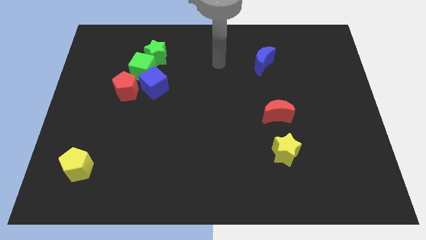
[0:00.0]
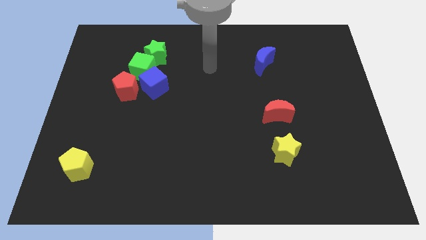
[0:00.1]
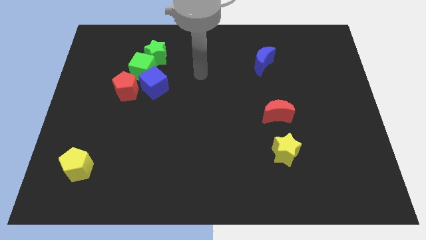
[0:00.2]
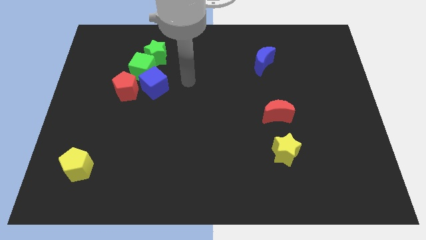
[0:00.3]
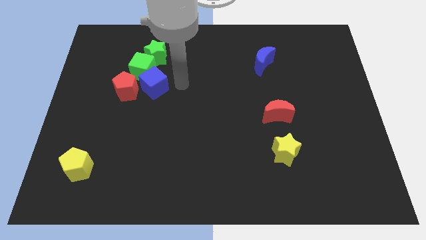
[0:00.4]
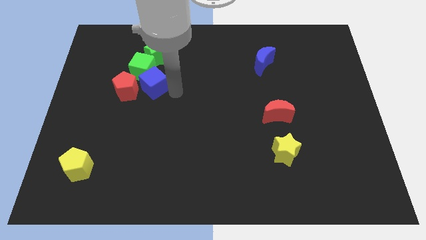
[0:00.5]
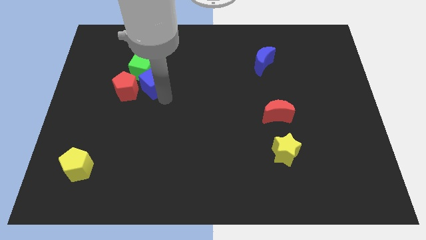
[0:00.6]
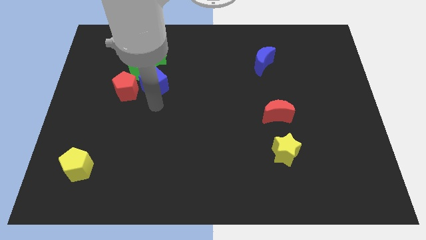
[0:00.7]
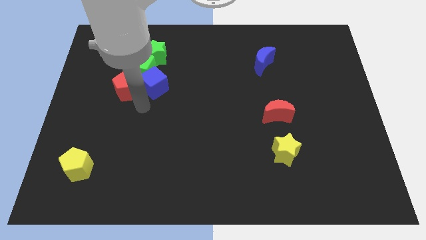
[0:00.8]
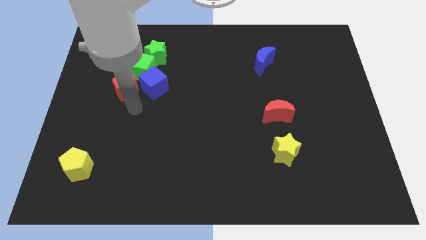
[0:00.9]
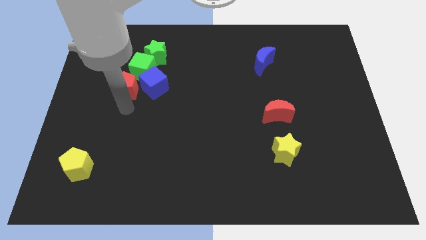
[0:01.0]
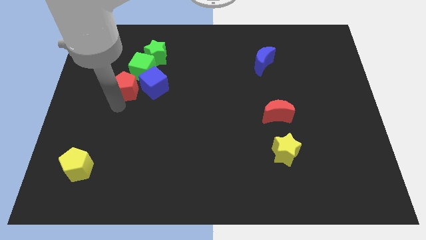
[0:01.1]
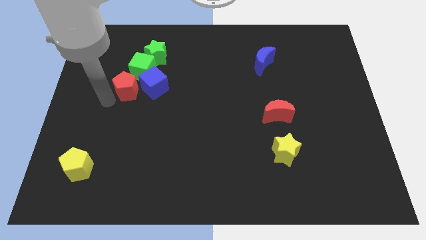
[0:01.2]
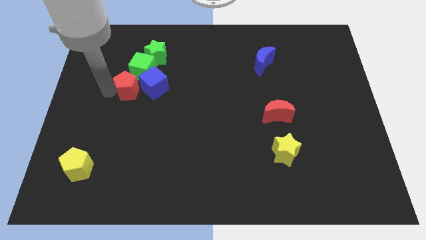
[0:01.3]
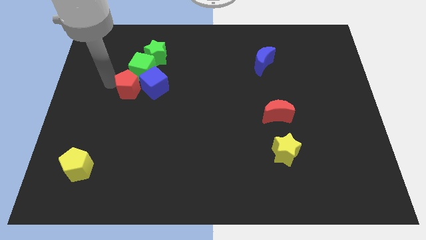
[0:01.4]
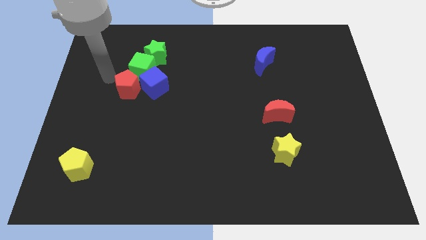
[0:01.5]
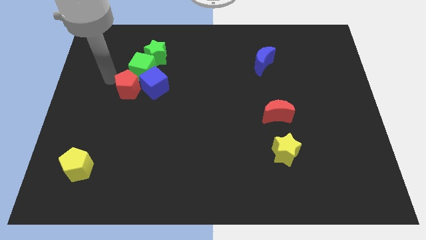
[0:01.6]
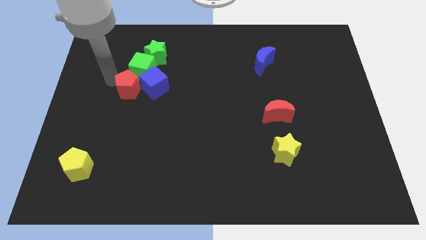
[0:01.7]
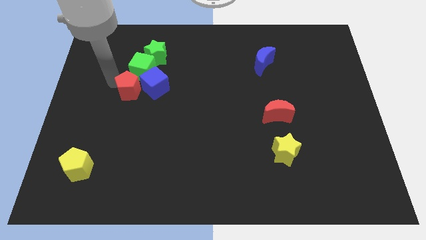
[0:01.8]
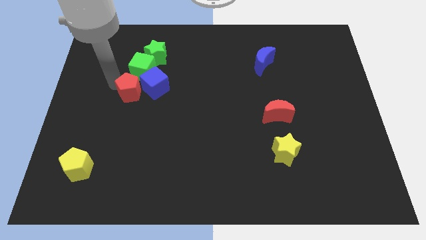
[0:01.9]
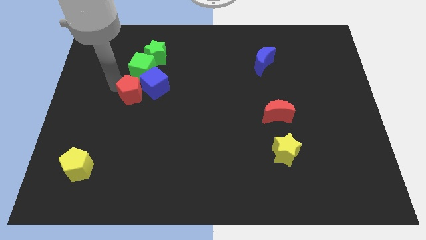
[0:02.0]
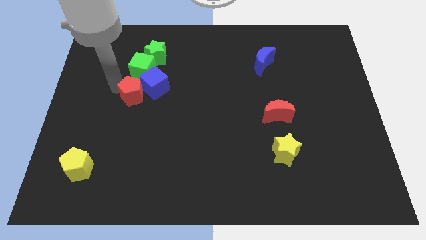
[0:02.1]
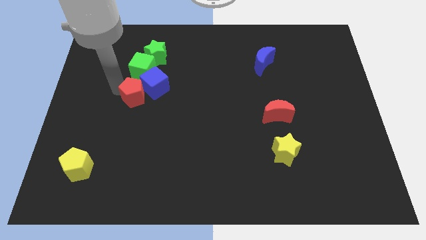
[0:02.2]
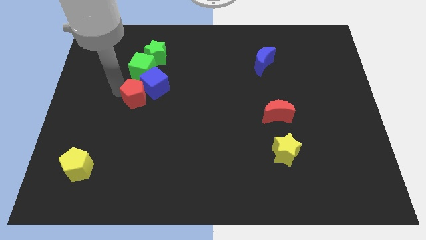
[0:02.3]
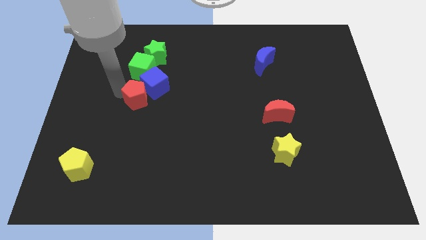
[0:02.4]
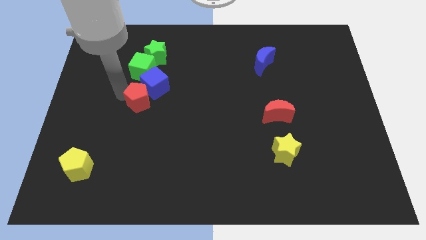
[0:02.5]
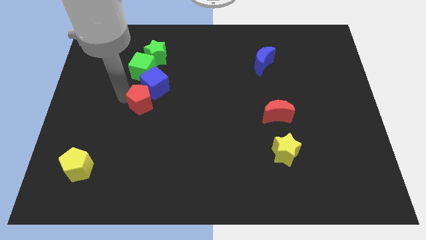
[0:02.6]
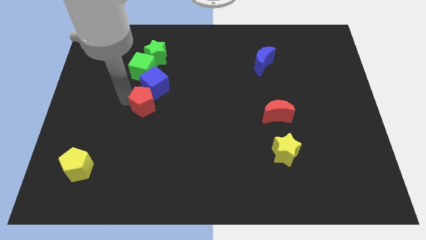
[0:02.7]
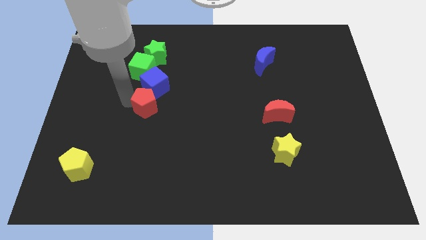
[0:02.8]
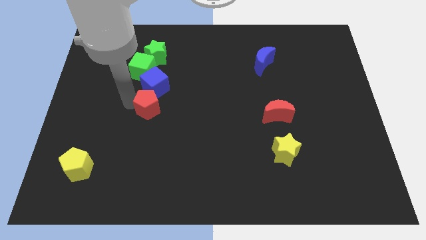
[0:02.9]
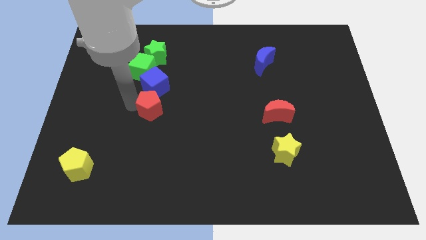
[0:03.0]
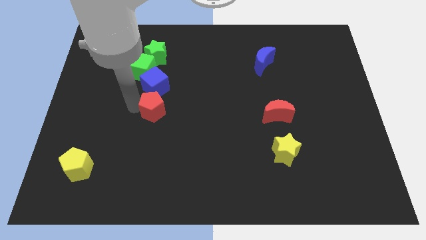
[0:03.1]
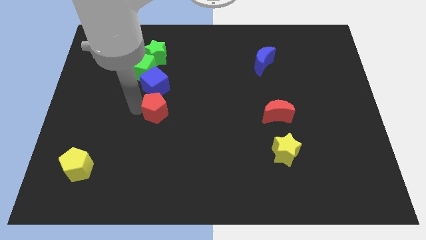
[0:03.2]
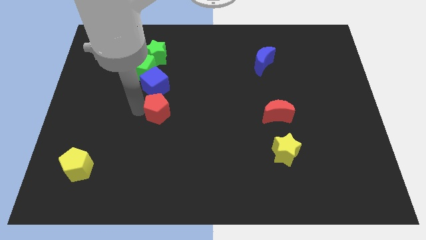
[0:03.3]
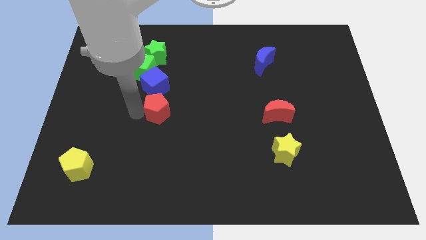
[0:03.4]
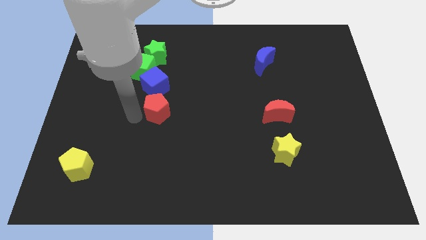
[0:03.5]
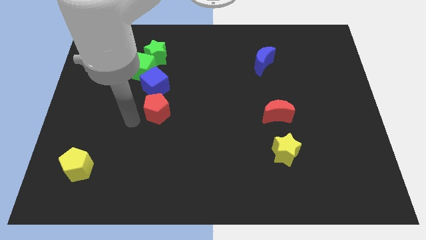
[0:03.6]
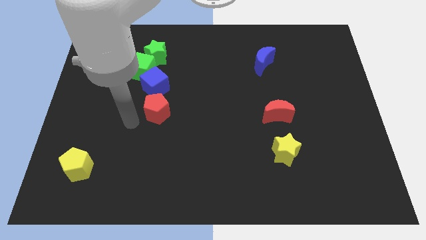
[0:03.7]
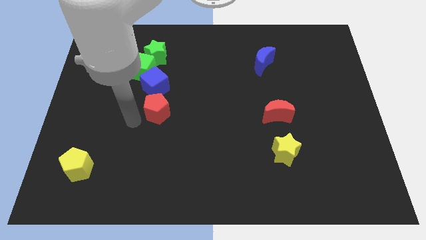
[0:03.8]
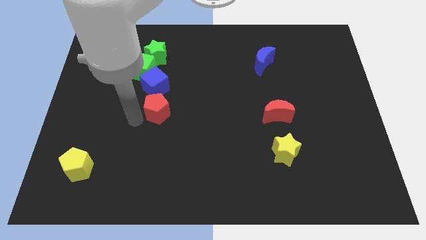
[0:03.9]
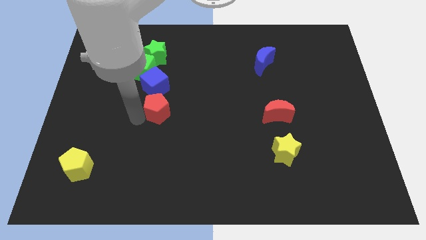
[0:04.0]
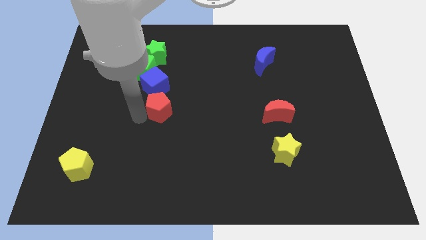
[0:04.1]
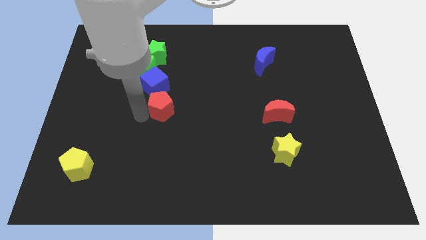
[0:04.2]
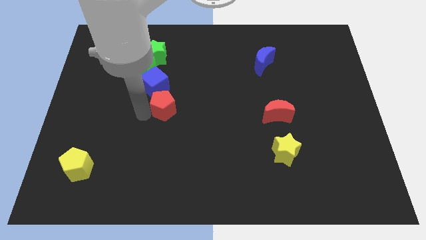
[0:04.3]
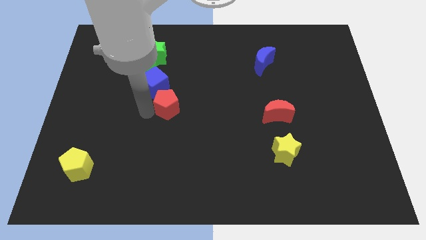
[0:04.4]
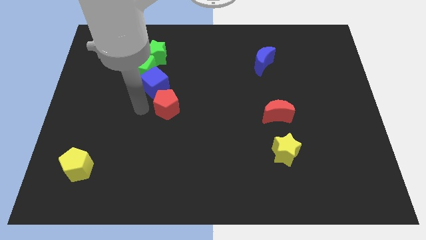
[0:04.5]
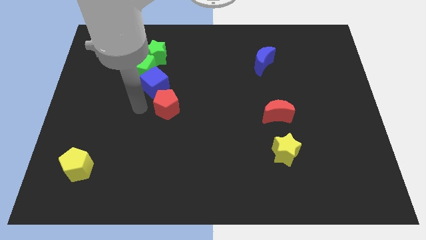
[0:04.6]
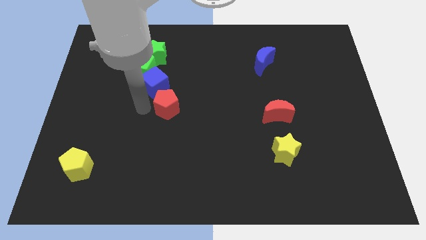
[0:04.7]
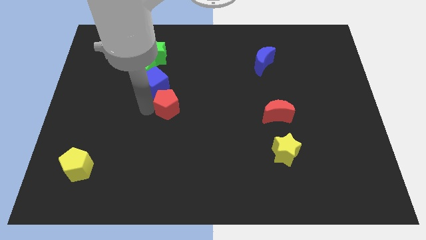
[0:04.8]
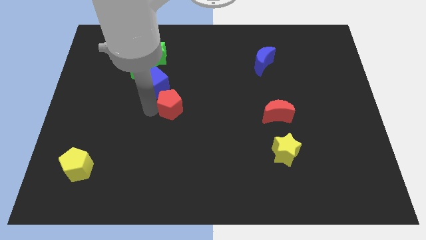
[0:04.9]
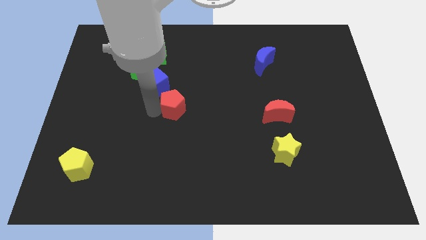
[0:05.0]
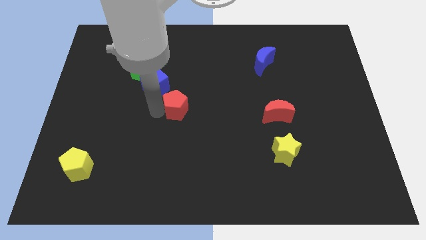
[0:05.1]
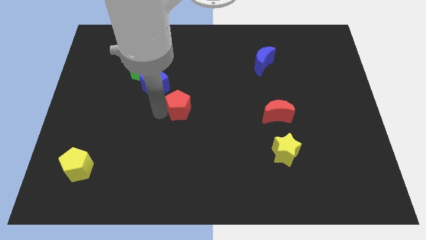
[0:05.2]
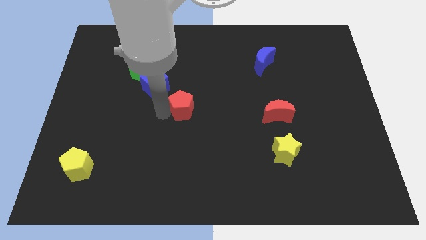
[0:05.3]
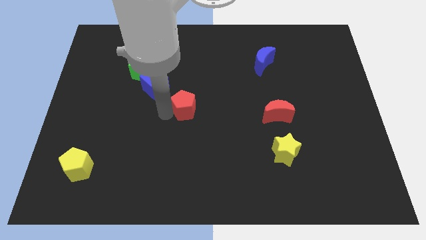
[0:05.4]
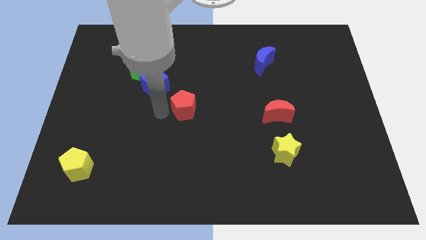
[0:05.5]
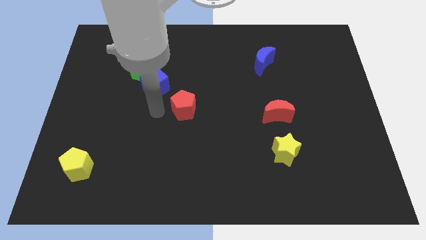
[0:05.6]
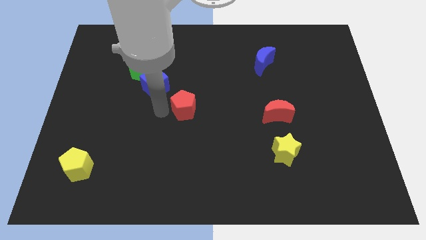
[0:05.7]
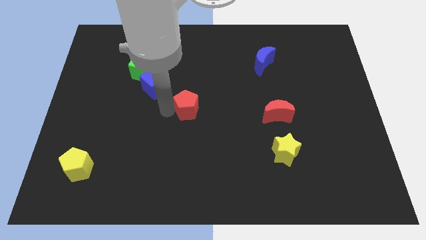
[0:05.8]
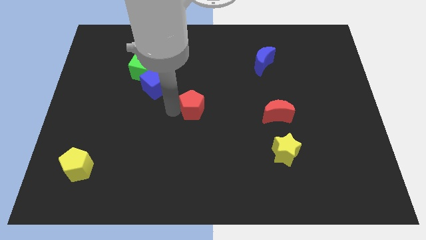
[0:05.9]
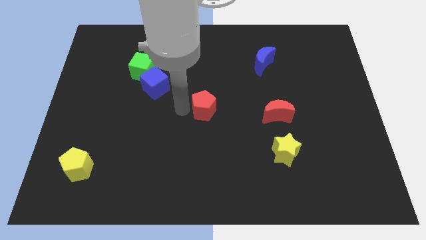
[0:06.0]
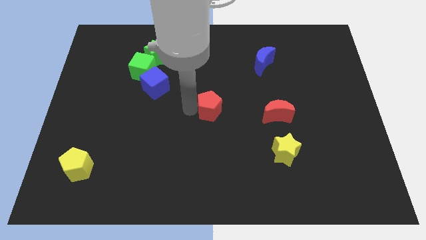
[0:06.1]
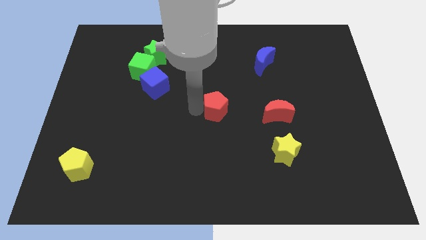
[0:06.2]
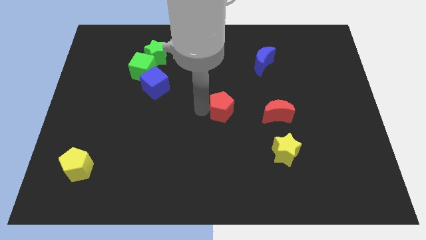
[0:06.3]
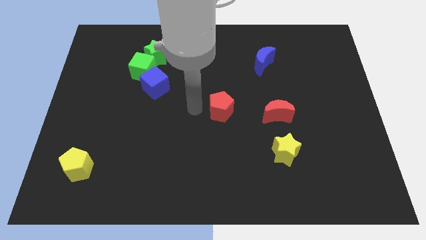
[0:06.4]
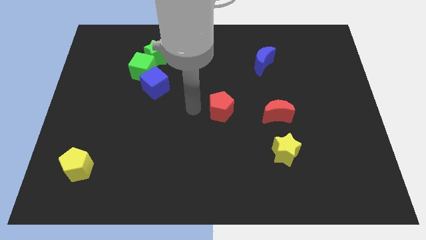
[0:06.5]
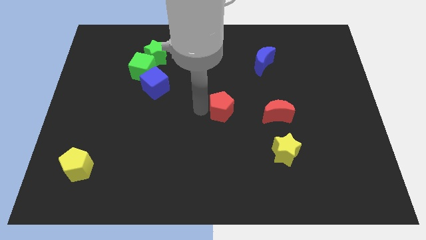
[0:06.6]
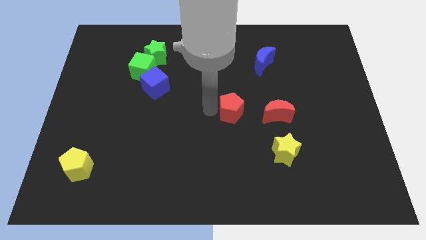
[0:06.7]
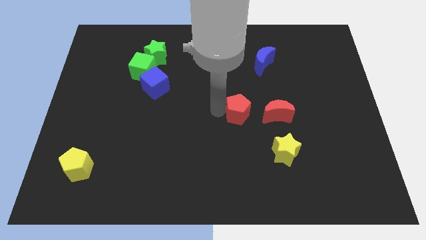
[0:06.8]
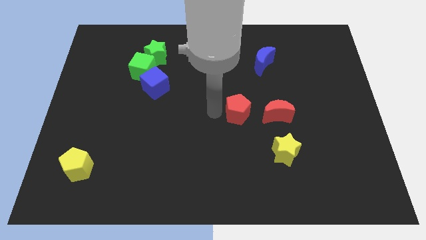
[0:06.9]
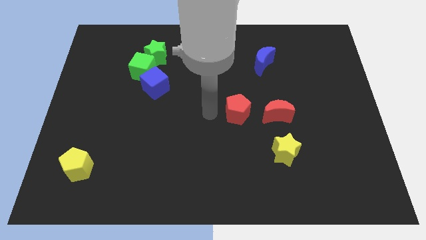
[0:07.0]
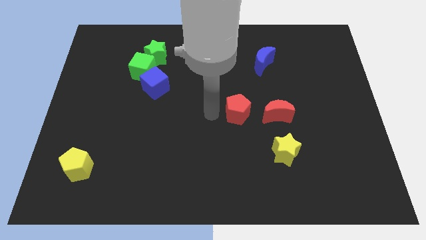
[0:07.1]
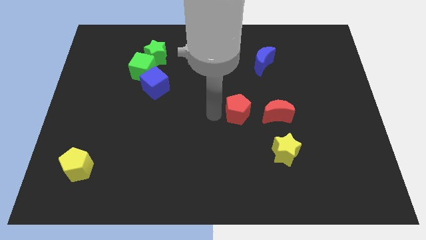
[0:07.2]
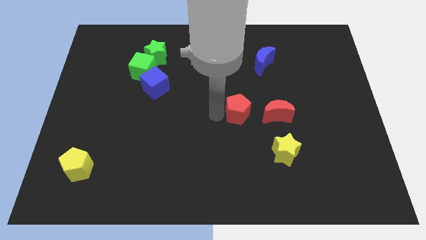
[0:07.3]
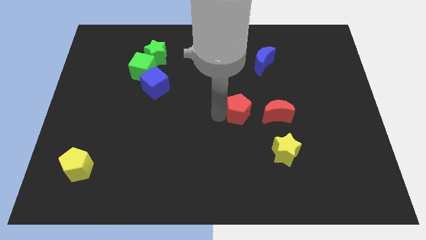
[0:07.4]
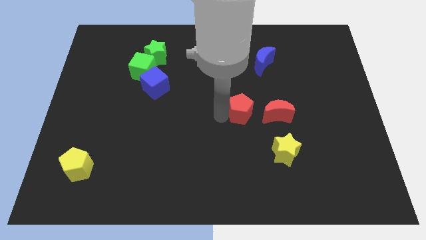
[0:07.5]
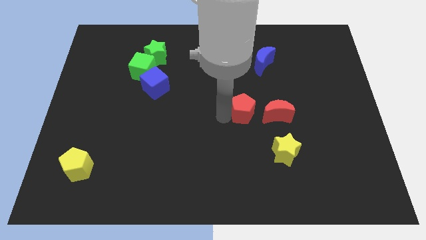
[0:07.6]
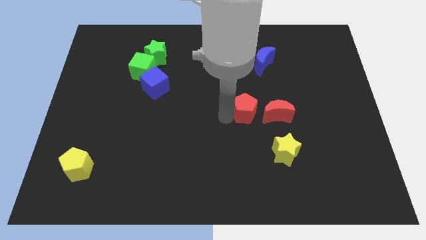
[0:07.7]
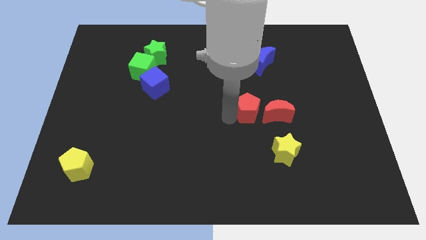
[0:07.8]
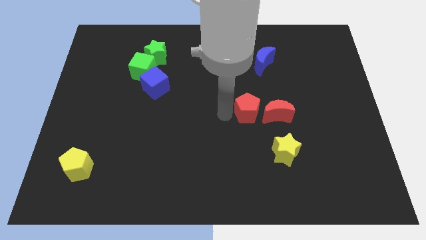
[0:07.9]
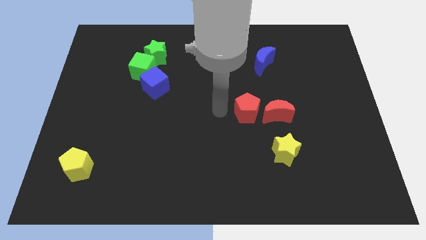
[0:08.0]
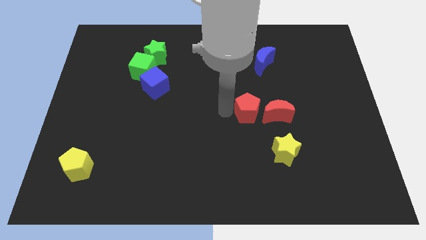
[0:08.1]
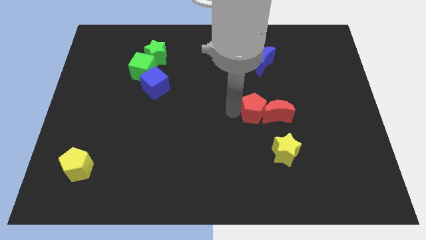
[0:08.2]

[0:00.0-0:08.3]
move the red pentagon towards the red moon
